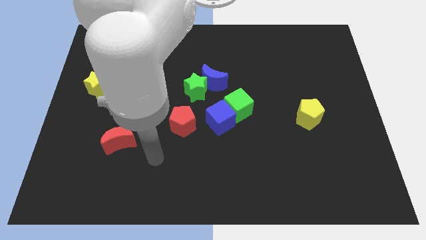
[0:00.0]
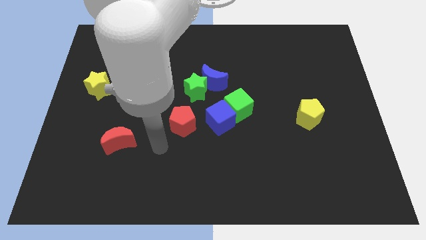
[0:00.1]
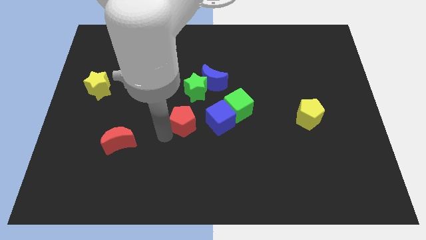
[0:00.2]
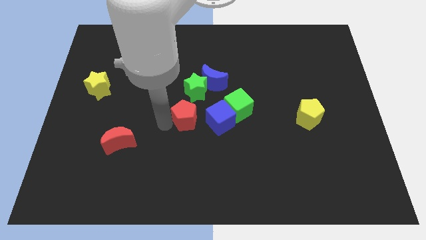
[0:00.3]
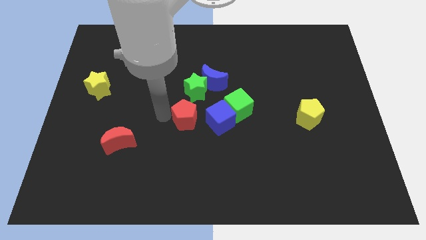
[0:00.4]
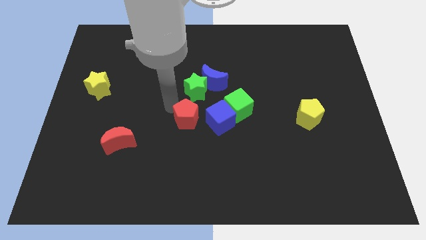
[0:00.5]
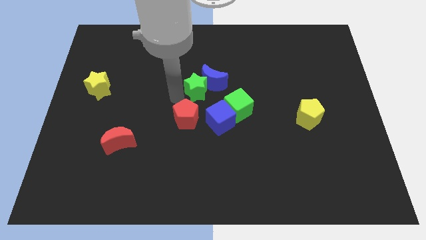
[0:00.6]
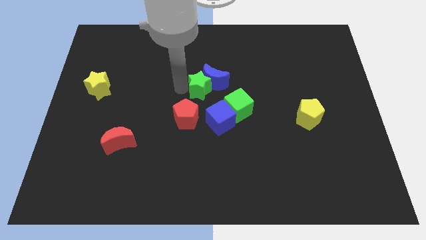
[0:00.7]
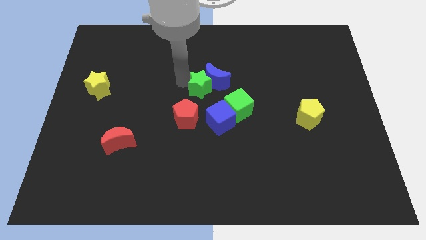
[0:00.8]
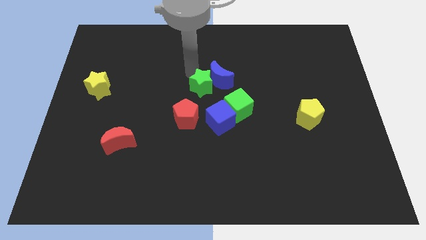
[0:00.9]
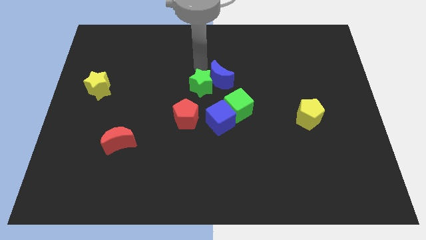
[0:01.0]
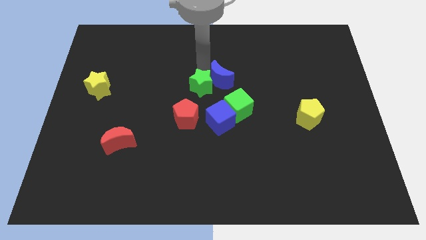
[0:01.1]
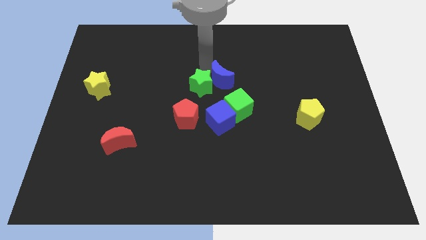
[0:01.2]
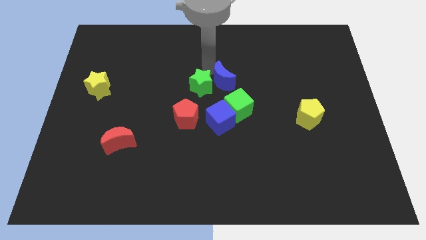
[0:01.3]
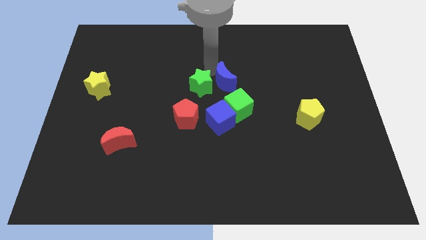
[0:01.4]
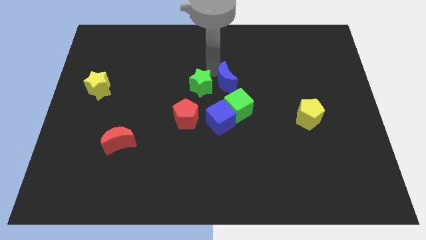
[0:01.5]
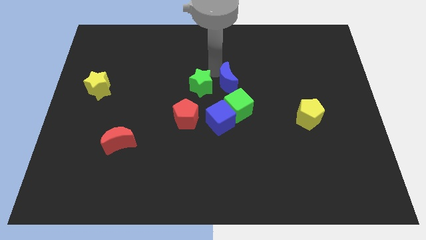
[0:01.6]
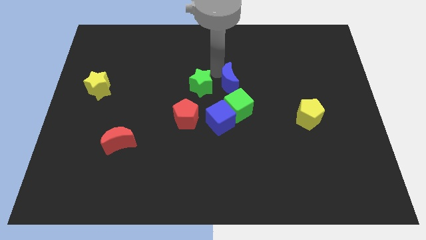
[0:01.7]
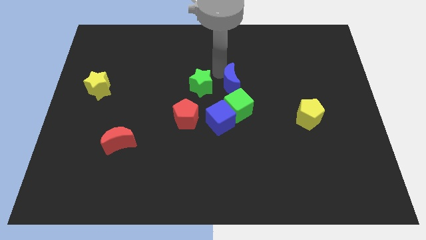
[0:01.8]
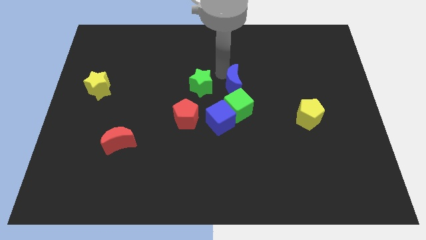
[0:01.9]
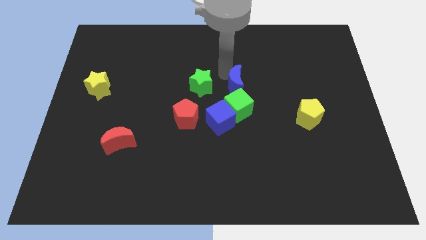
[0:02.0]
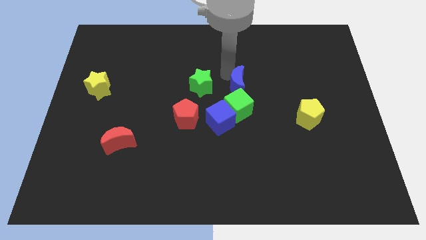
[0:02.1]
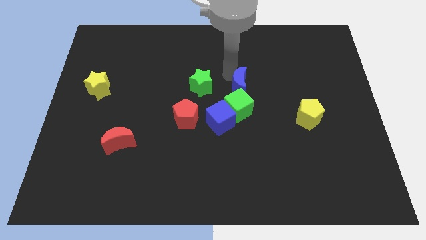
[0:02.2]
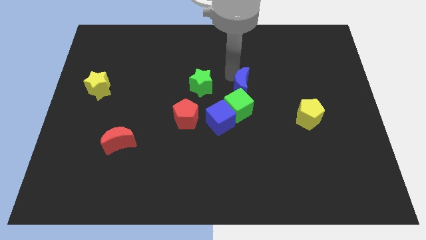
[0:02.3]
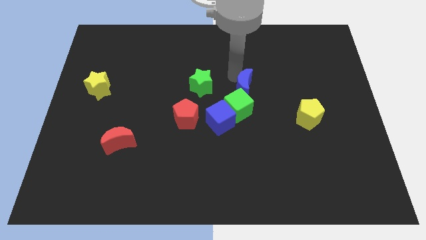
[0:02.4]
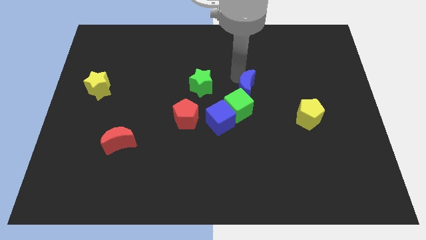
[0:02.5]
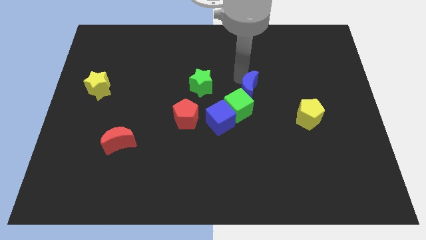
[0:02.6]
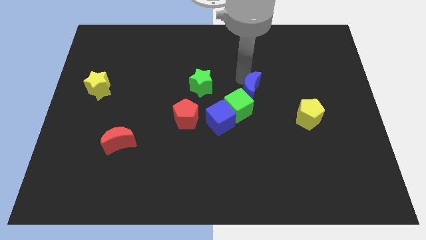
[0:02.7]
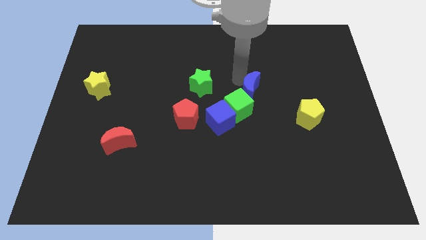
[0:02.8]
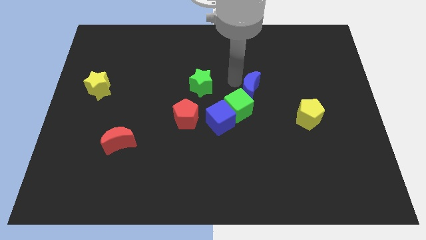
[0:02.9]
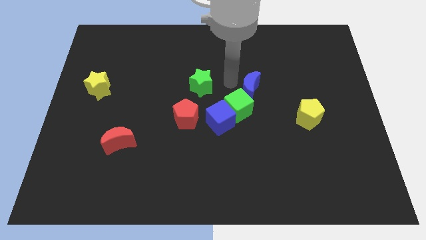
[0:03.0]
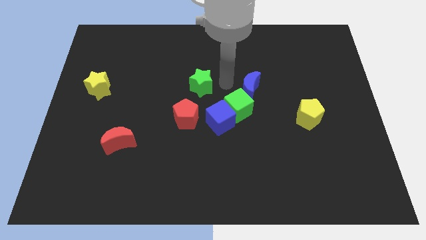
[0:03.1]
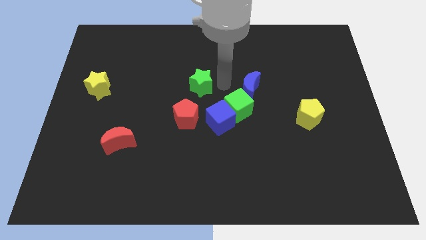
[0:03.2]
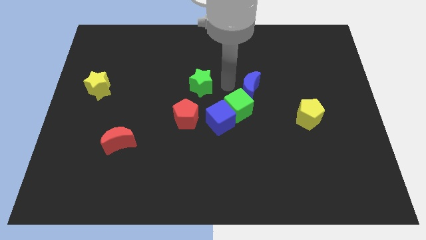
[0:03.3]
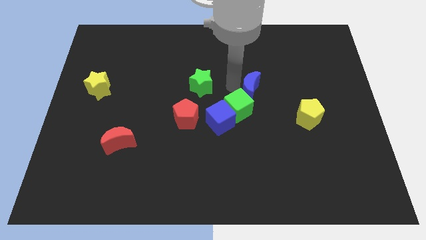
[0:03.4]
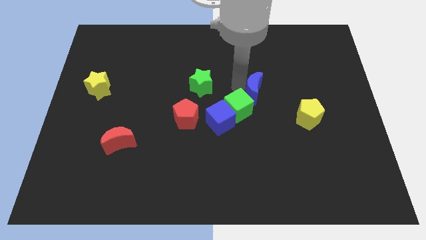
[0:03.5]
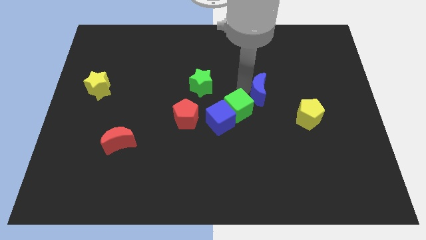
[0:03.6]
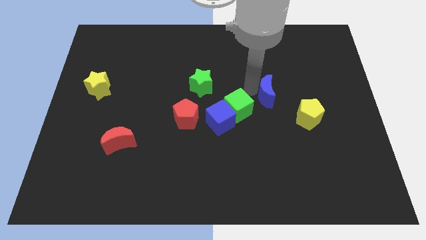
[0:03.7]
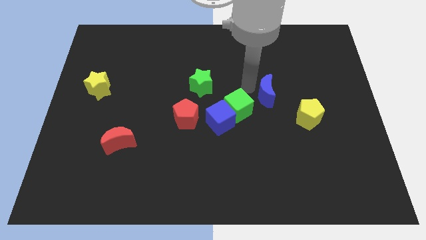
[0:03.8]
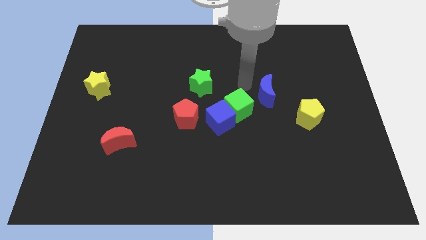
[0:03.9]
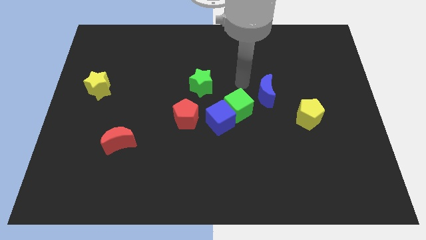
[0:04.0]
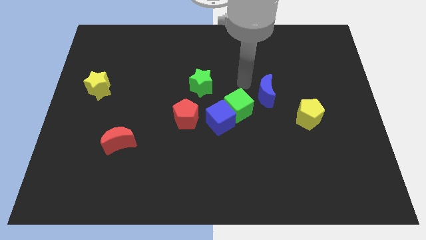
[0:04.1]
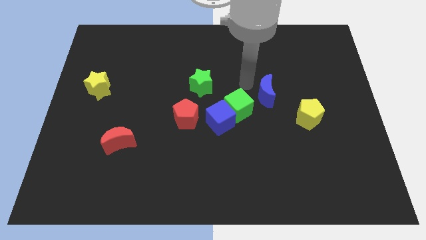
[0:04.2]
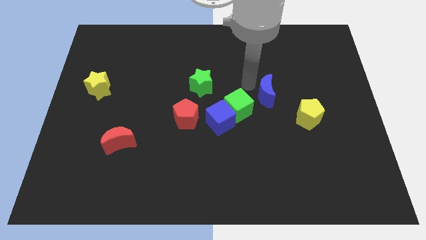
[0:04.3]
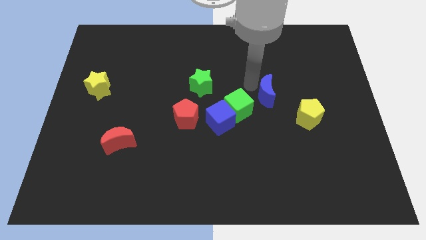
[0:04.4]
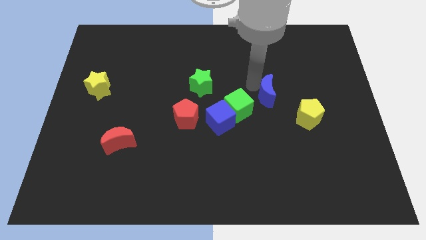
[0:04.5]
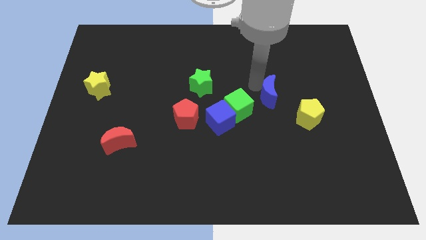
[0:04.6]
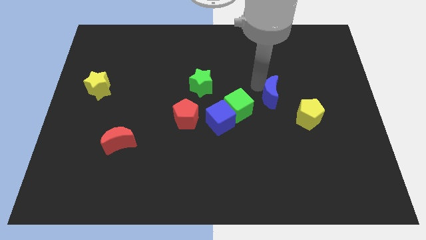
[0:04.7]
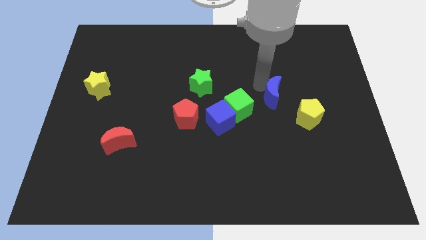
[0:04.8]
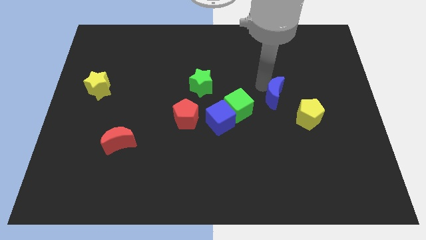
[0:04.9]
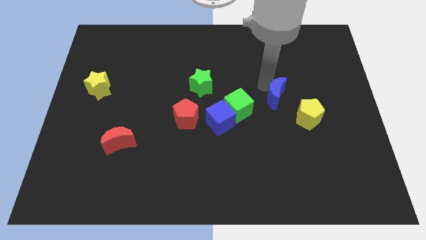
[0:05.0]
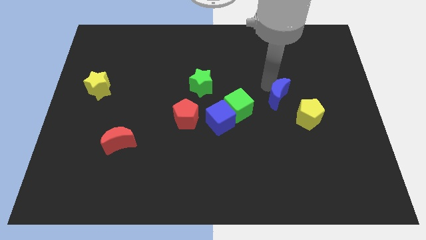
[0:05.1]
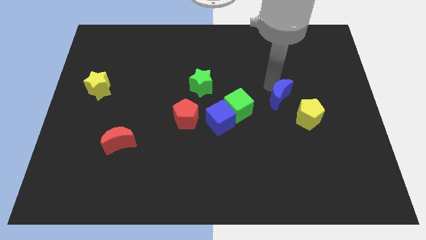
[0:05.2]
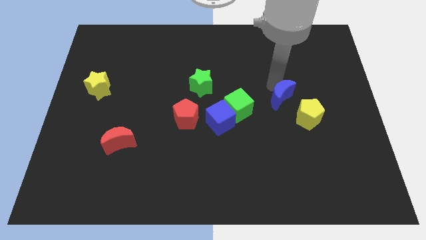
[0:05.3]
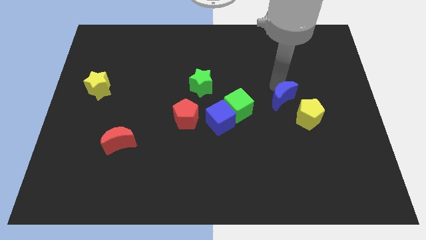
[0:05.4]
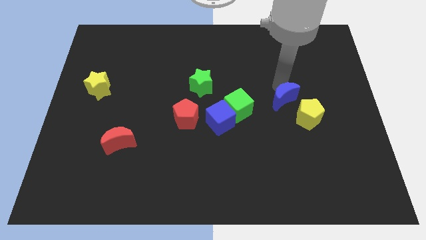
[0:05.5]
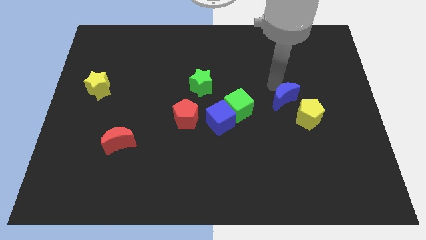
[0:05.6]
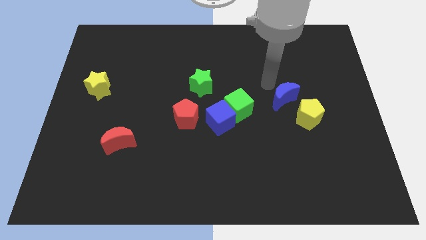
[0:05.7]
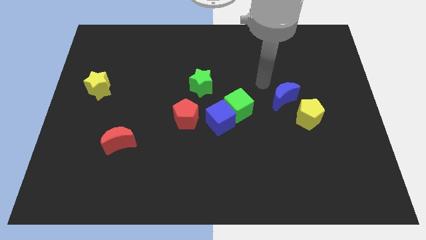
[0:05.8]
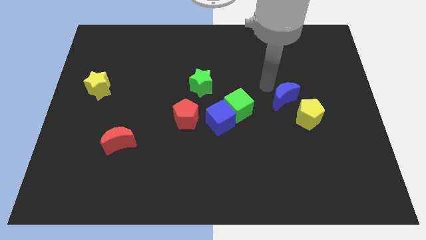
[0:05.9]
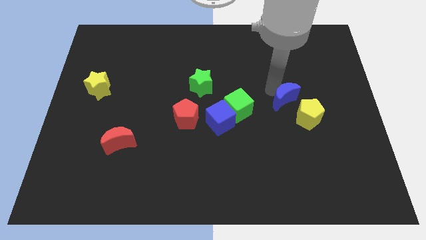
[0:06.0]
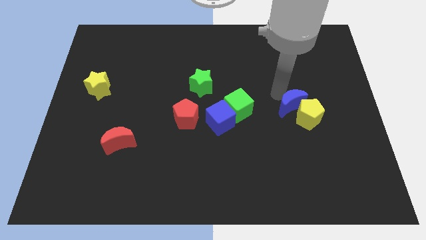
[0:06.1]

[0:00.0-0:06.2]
move the blue moon towards the yellow pentagon

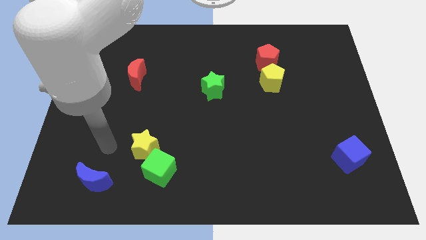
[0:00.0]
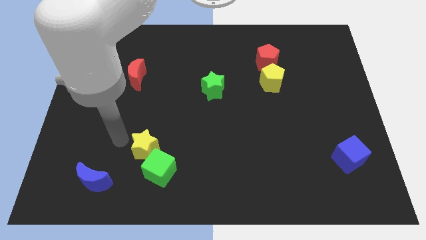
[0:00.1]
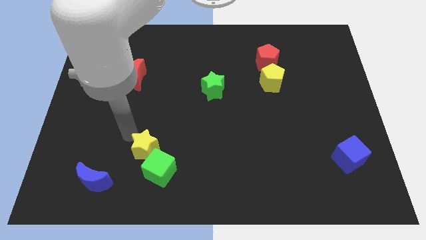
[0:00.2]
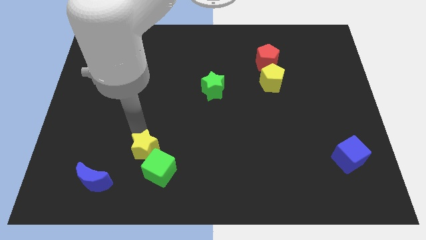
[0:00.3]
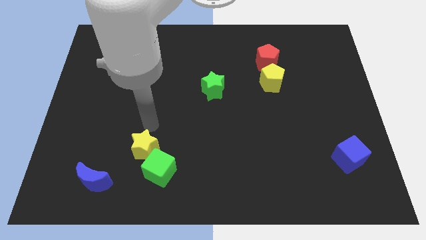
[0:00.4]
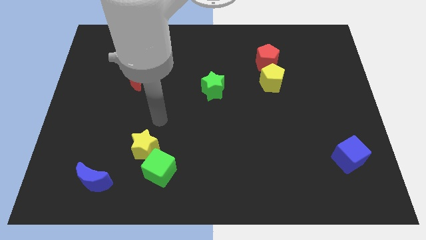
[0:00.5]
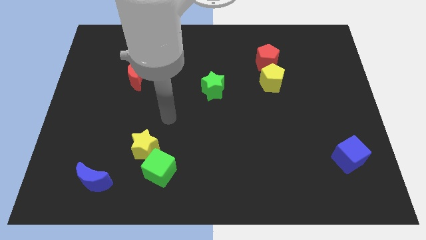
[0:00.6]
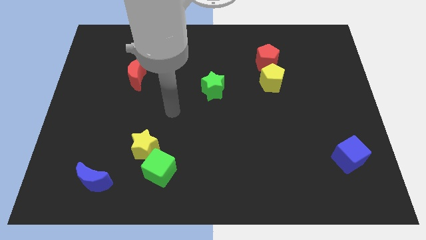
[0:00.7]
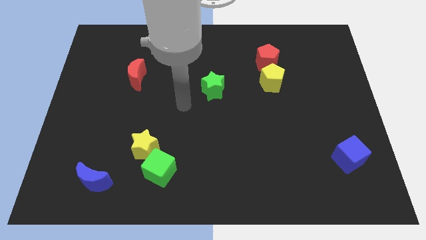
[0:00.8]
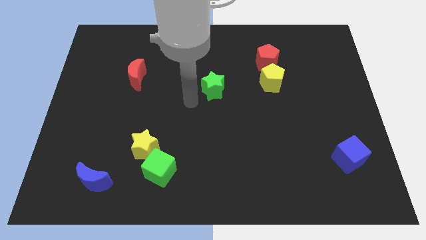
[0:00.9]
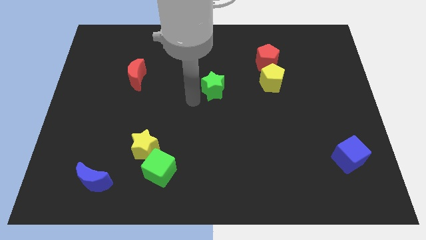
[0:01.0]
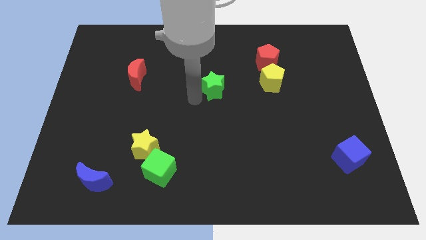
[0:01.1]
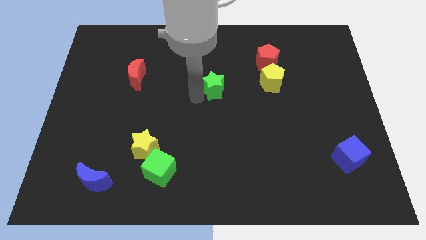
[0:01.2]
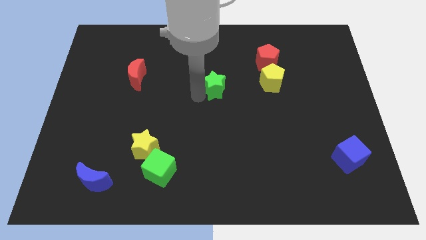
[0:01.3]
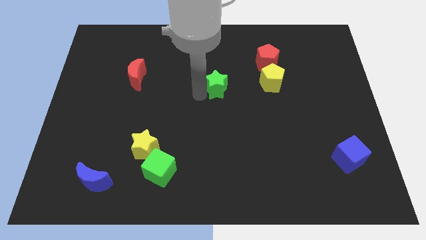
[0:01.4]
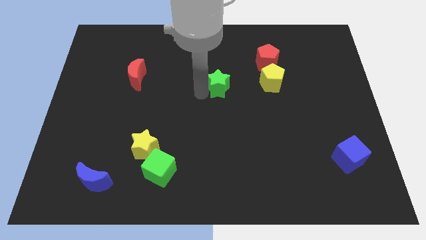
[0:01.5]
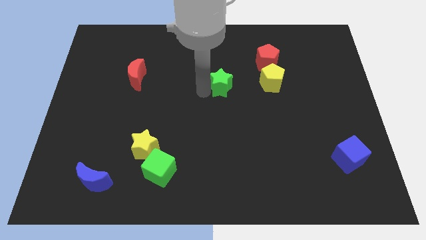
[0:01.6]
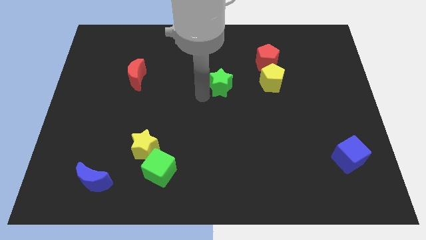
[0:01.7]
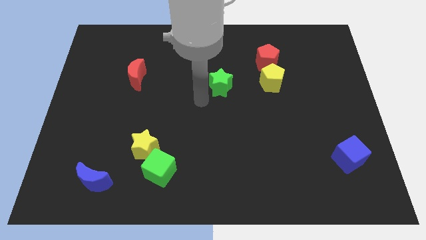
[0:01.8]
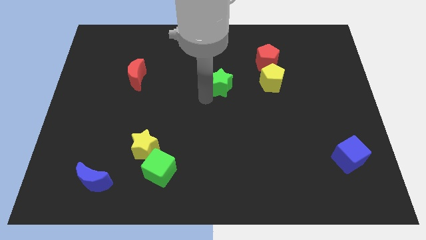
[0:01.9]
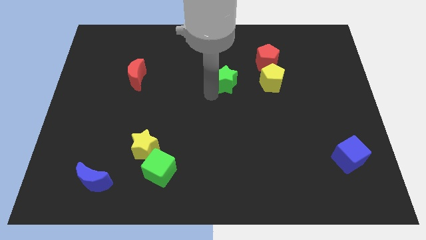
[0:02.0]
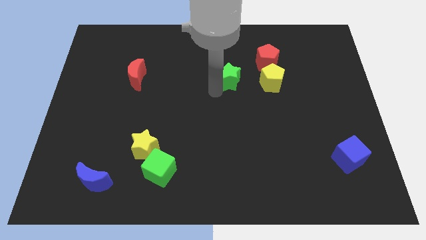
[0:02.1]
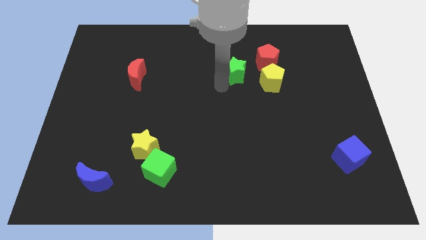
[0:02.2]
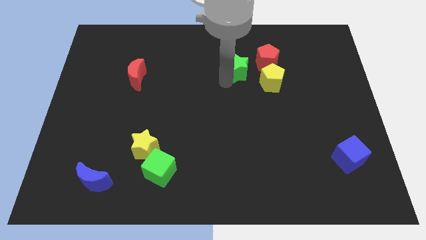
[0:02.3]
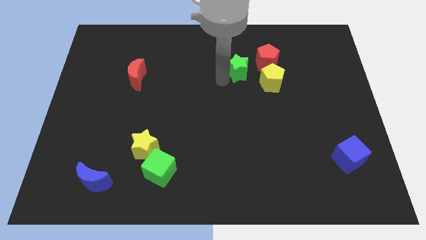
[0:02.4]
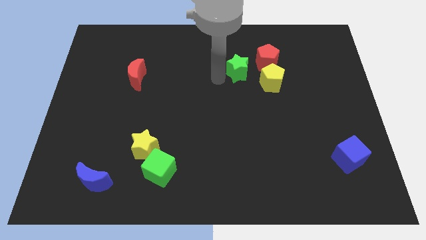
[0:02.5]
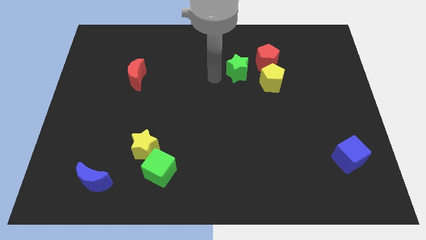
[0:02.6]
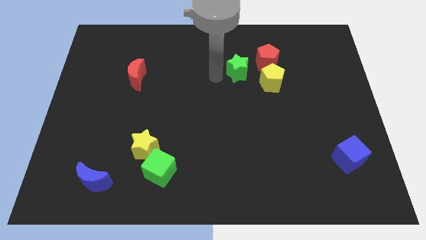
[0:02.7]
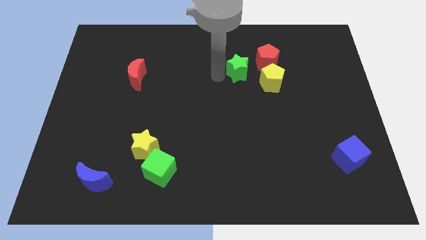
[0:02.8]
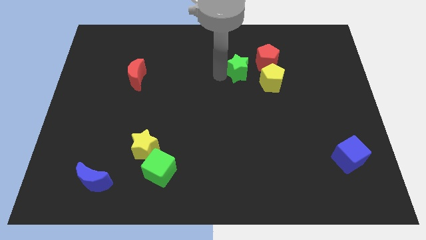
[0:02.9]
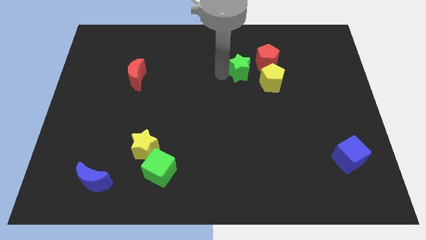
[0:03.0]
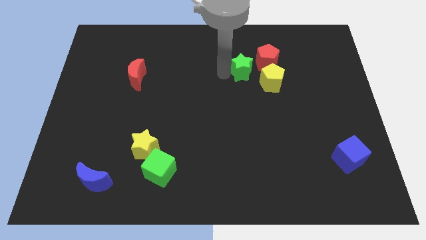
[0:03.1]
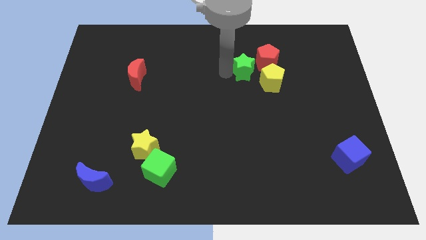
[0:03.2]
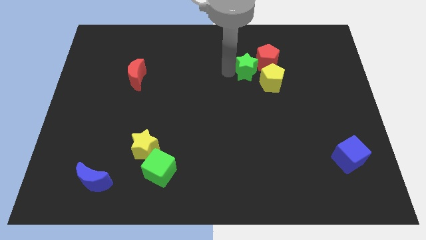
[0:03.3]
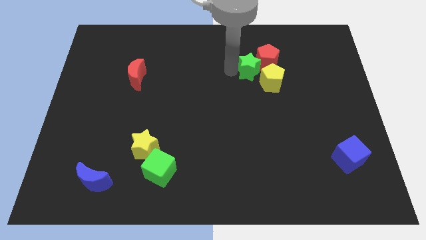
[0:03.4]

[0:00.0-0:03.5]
push the green star close to the red pentagon
